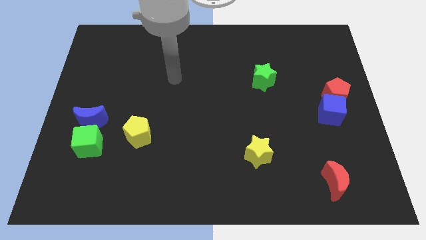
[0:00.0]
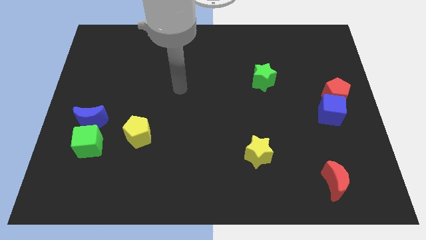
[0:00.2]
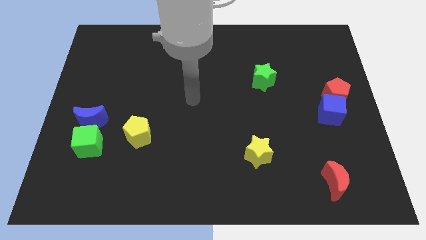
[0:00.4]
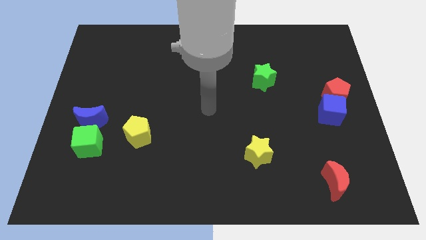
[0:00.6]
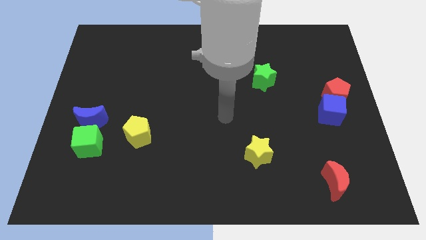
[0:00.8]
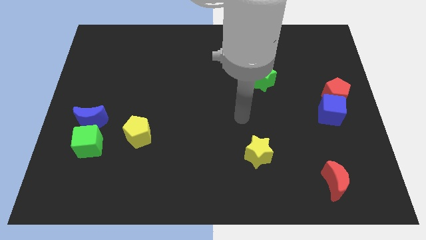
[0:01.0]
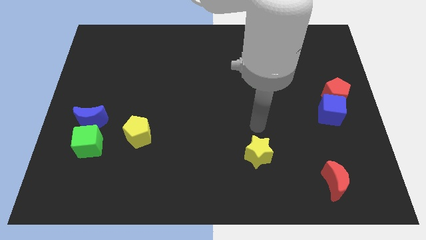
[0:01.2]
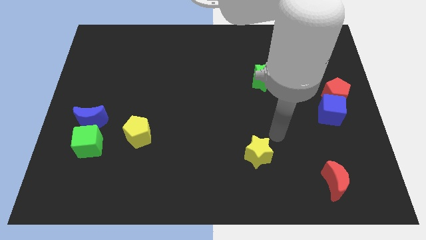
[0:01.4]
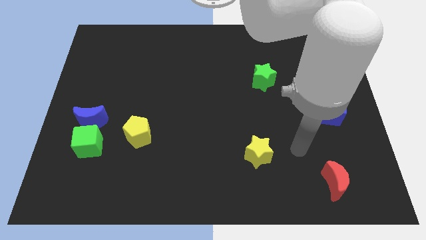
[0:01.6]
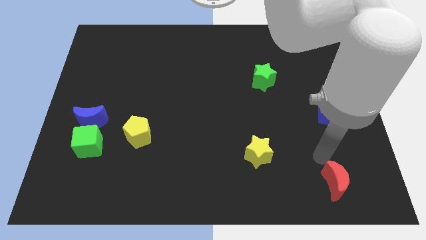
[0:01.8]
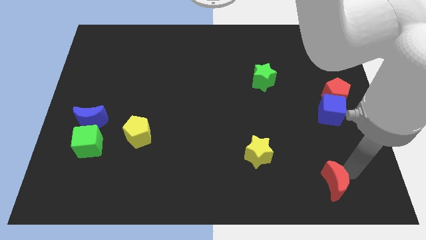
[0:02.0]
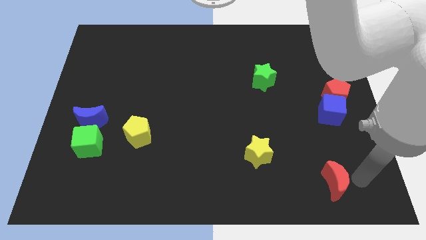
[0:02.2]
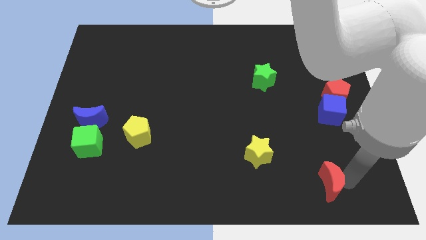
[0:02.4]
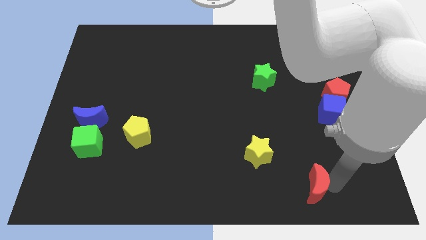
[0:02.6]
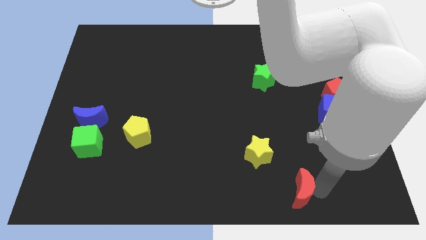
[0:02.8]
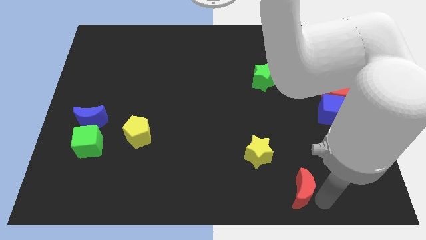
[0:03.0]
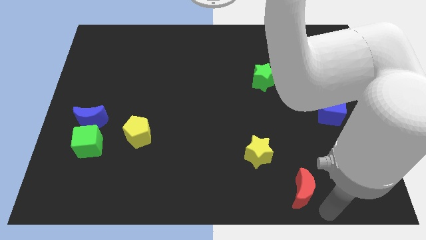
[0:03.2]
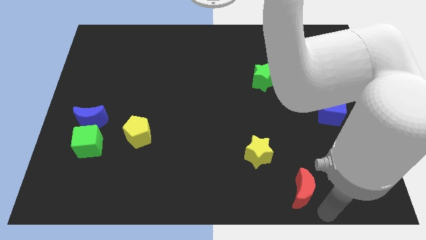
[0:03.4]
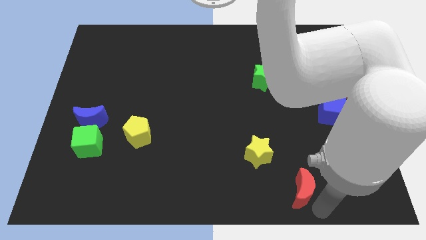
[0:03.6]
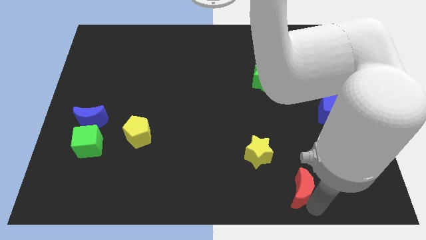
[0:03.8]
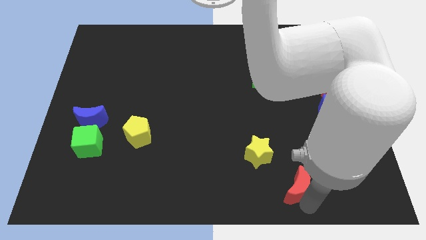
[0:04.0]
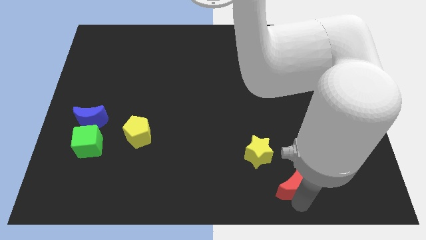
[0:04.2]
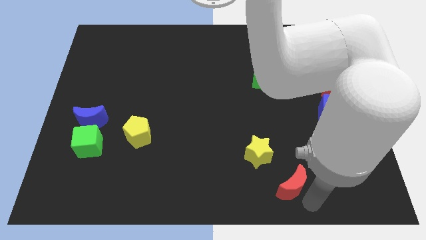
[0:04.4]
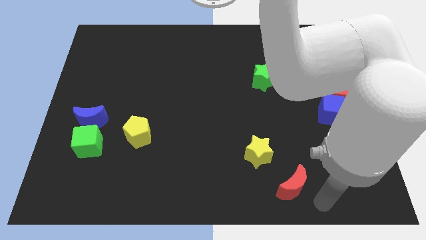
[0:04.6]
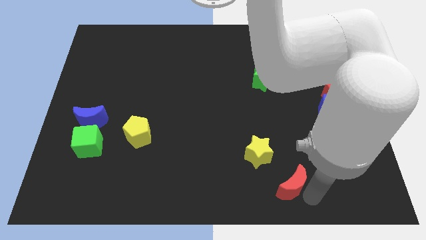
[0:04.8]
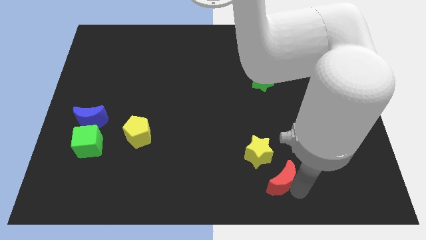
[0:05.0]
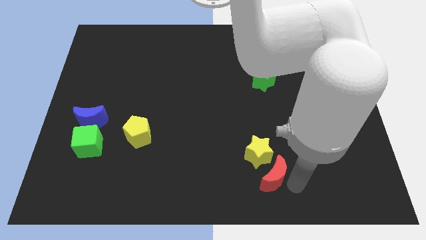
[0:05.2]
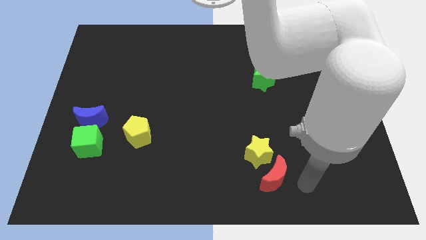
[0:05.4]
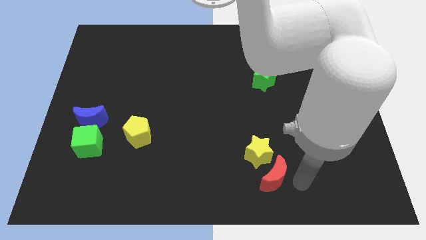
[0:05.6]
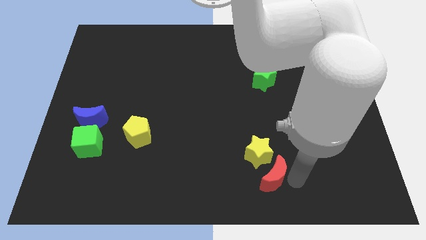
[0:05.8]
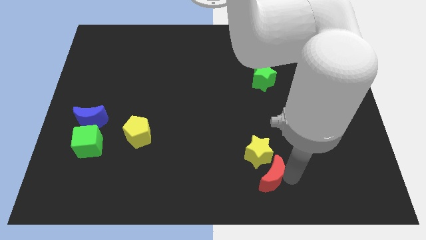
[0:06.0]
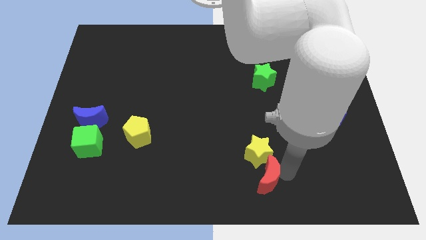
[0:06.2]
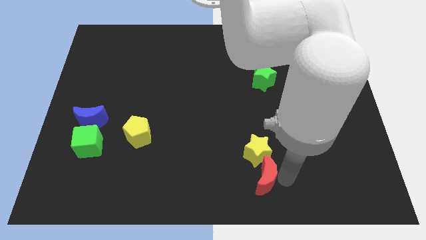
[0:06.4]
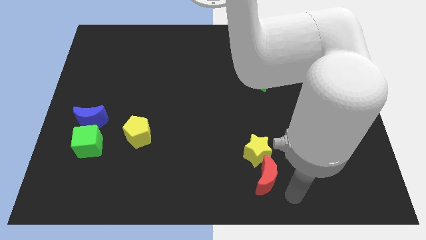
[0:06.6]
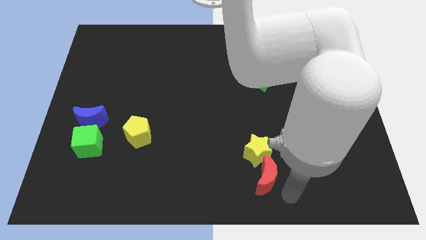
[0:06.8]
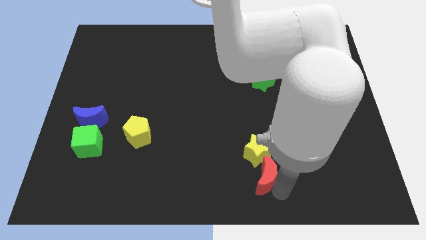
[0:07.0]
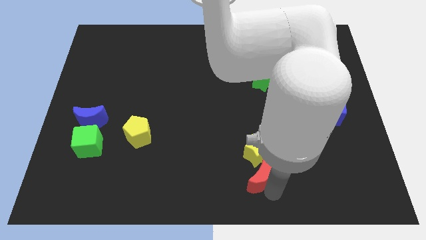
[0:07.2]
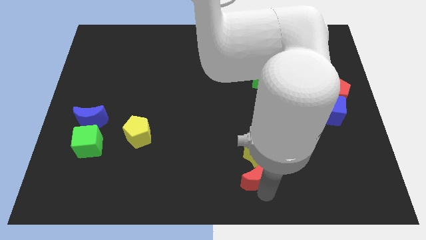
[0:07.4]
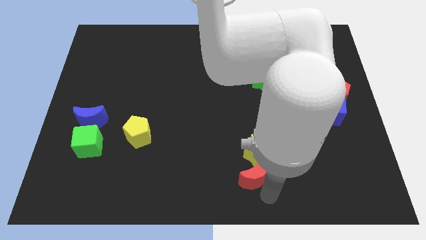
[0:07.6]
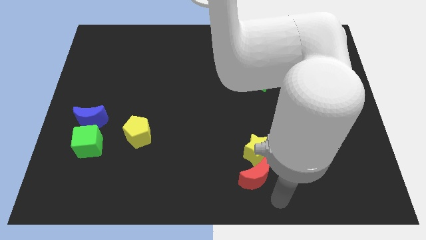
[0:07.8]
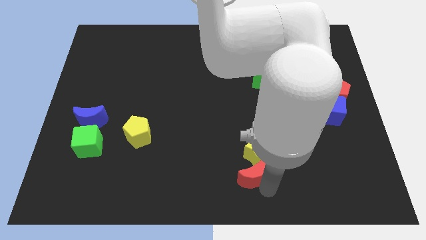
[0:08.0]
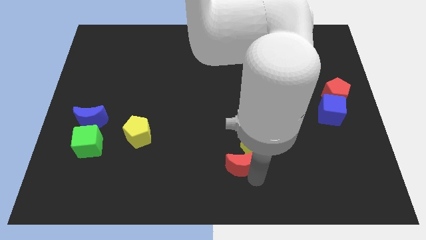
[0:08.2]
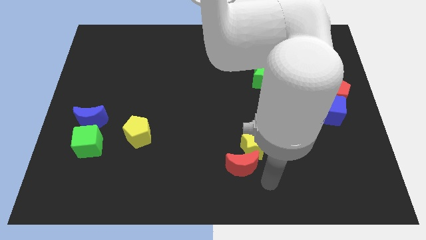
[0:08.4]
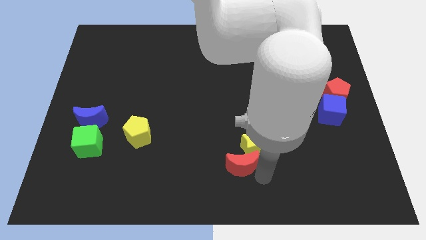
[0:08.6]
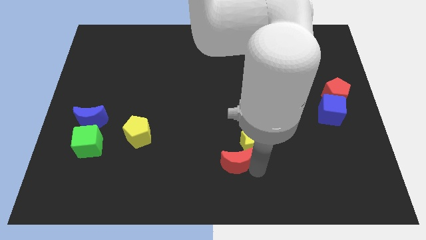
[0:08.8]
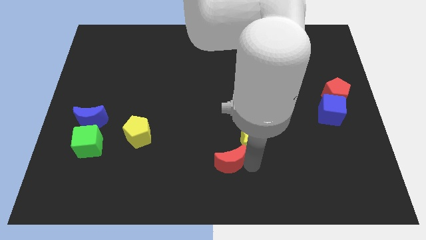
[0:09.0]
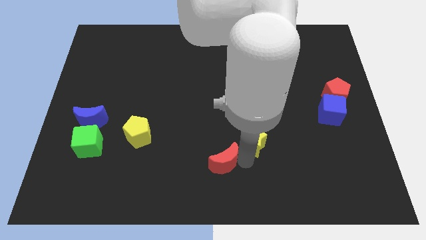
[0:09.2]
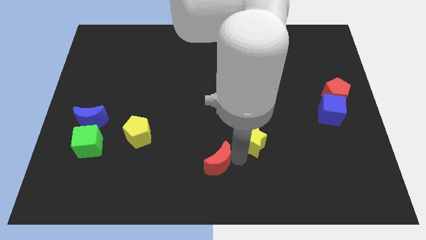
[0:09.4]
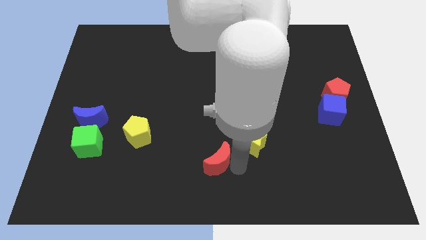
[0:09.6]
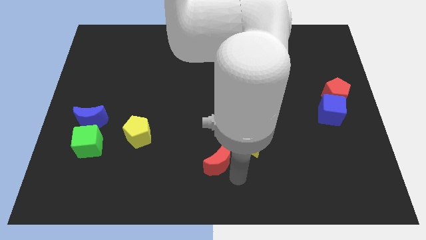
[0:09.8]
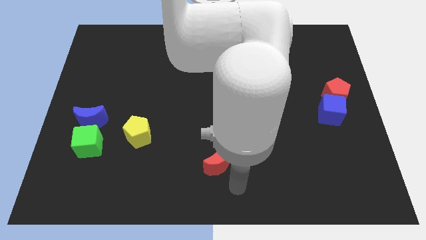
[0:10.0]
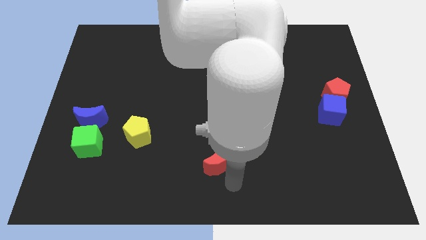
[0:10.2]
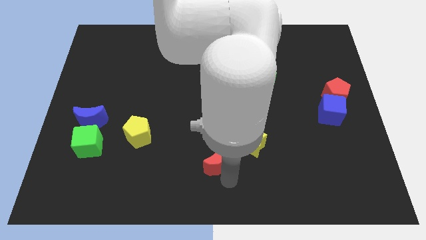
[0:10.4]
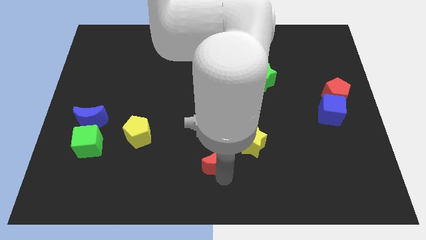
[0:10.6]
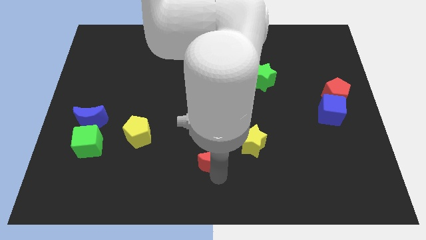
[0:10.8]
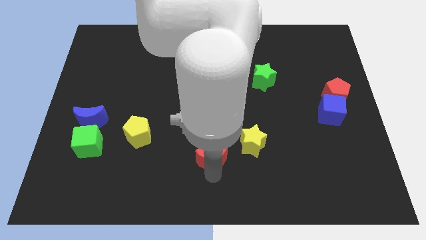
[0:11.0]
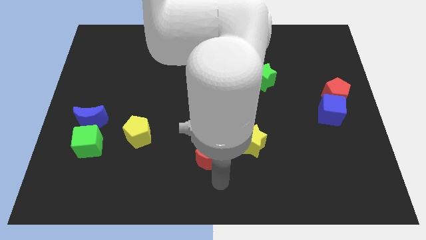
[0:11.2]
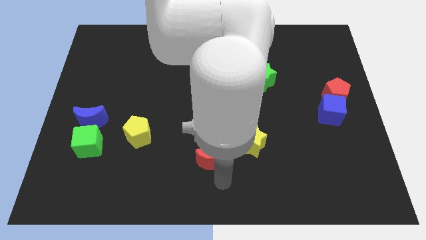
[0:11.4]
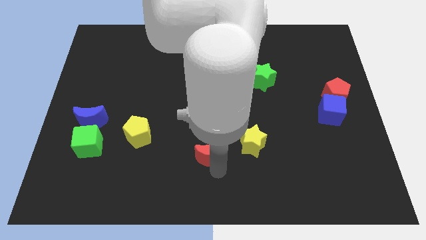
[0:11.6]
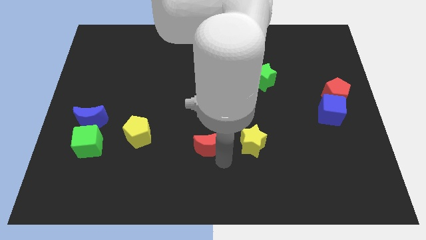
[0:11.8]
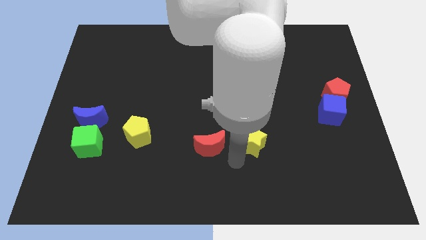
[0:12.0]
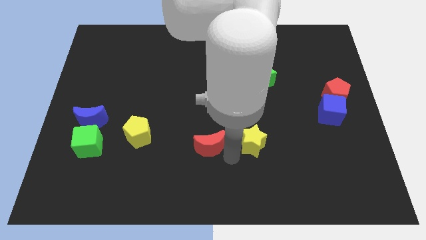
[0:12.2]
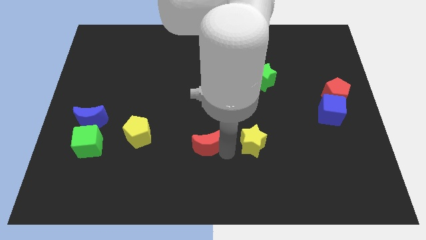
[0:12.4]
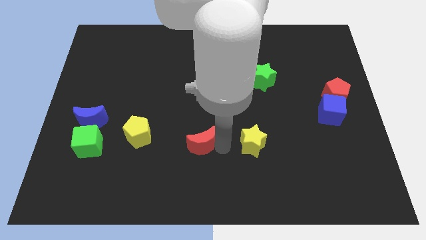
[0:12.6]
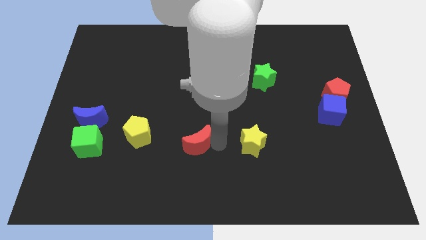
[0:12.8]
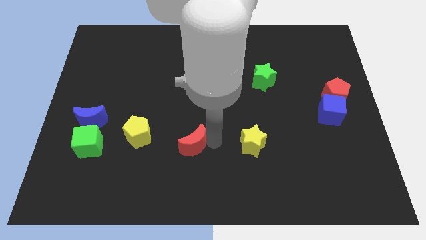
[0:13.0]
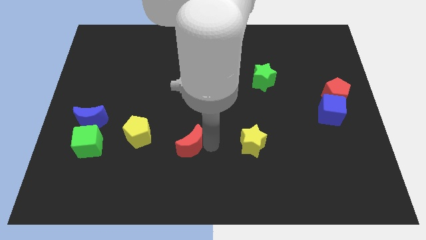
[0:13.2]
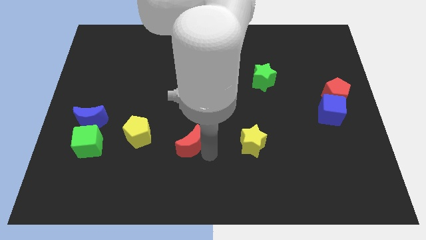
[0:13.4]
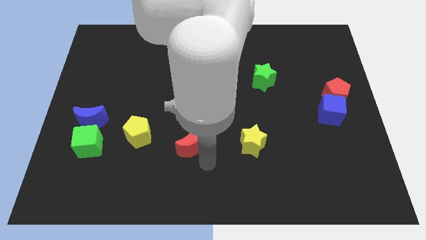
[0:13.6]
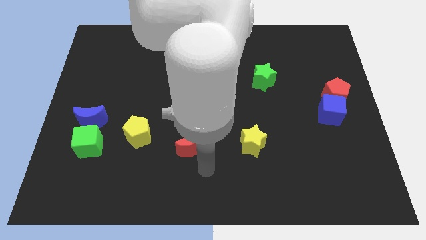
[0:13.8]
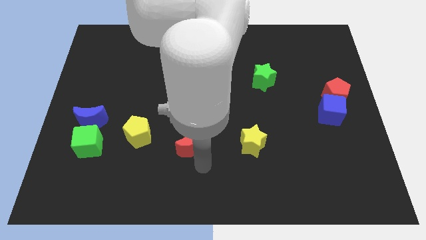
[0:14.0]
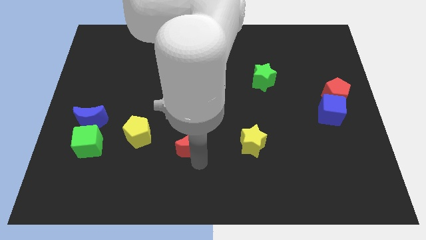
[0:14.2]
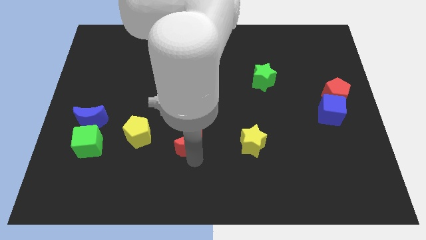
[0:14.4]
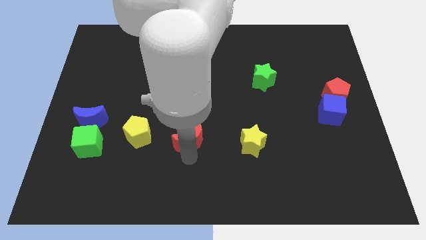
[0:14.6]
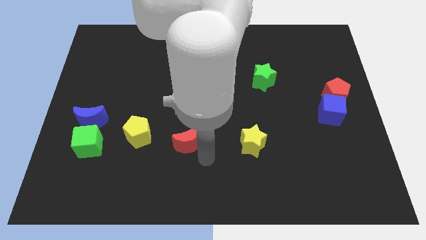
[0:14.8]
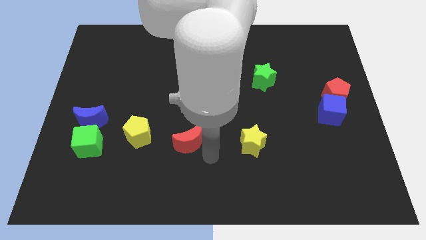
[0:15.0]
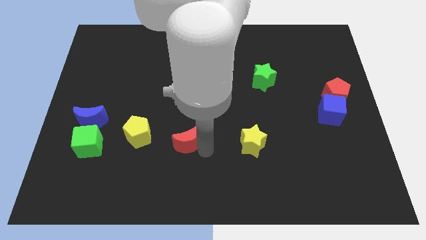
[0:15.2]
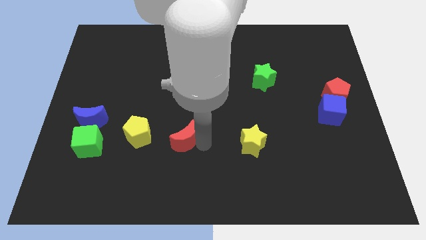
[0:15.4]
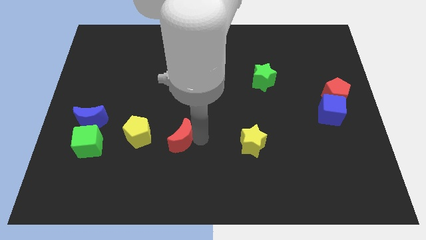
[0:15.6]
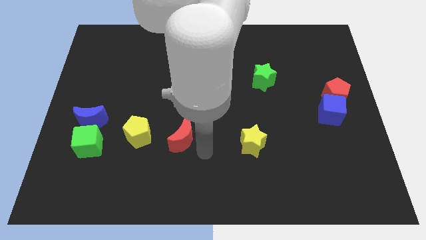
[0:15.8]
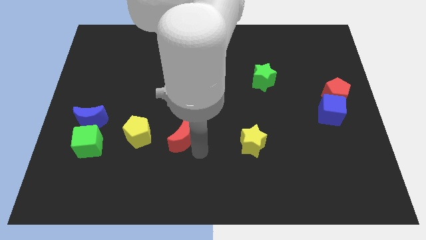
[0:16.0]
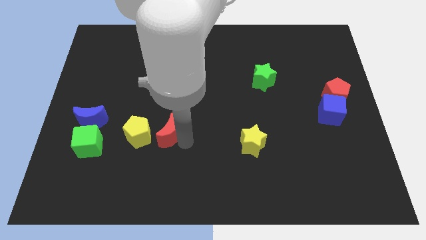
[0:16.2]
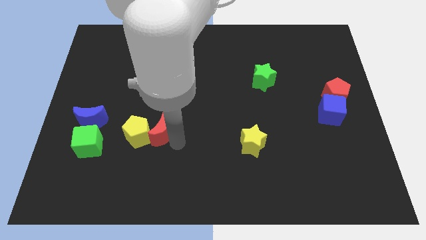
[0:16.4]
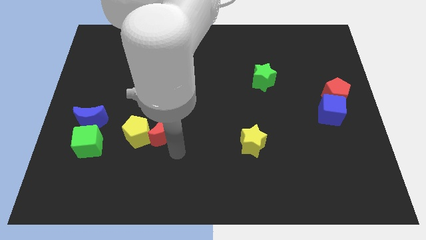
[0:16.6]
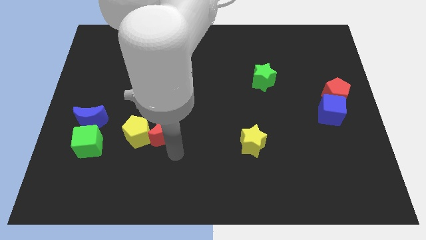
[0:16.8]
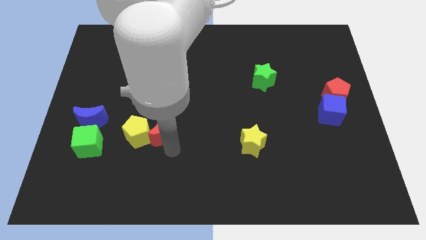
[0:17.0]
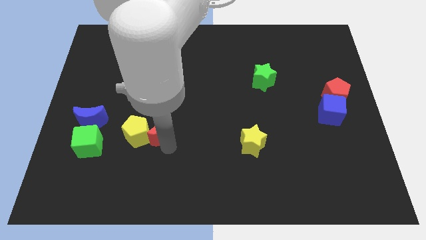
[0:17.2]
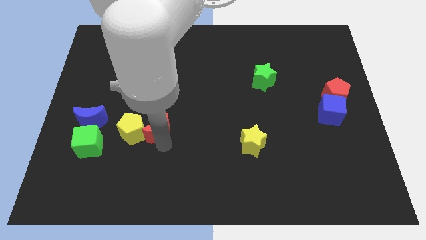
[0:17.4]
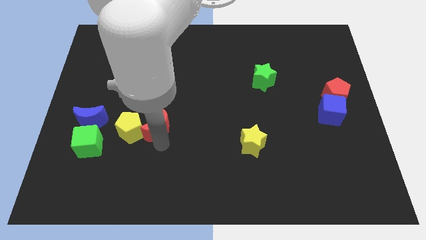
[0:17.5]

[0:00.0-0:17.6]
slide the red moon right of the blue moon
